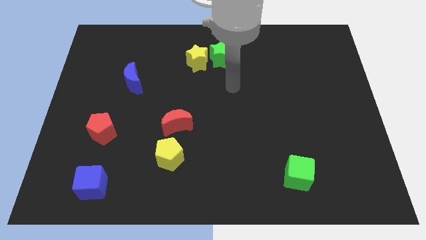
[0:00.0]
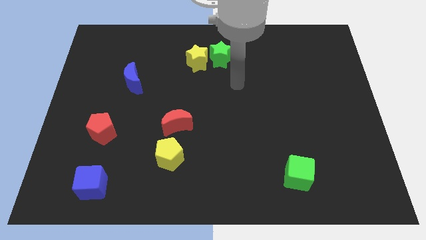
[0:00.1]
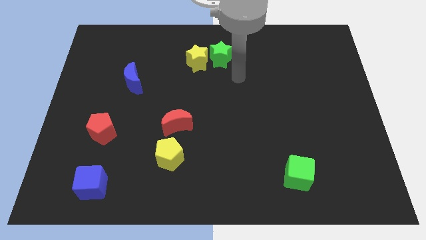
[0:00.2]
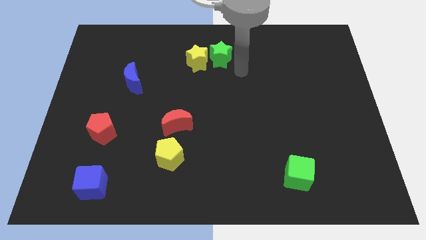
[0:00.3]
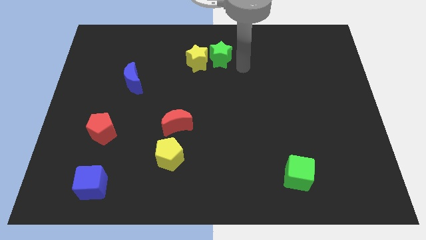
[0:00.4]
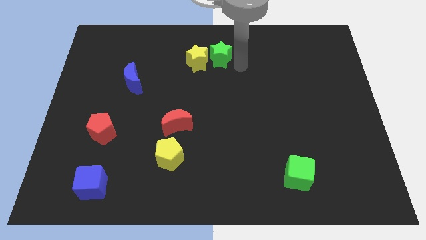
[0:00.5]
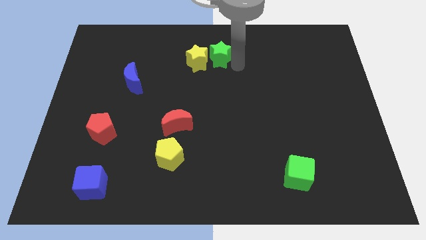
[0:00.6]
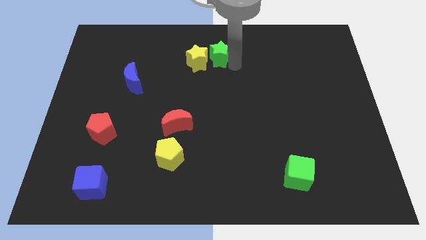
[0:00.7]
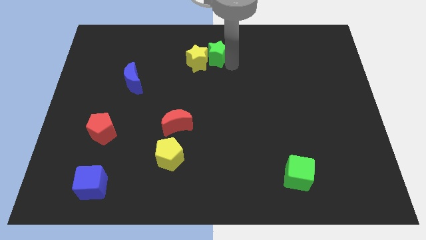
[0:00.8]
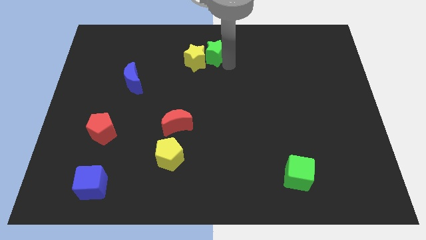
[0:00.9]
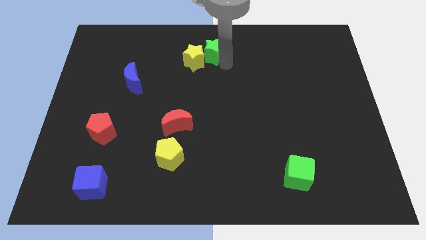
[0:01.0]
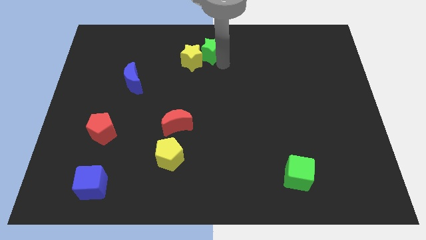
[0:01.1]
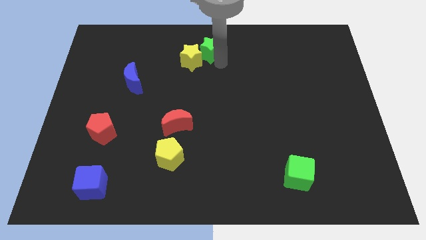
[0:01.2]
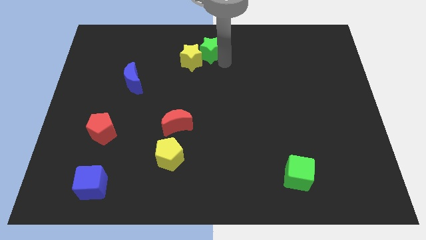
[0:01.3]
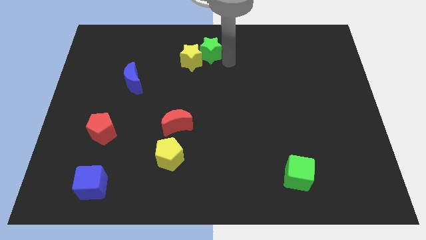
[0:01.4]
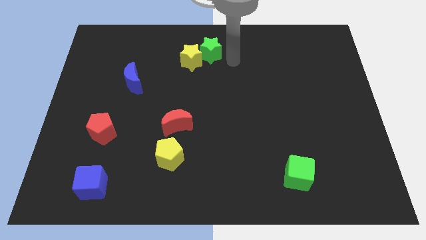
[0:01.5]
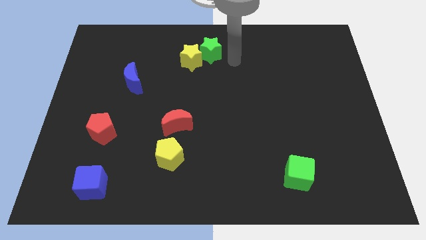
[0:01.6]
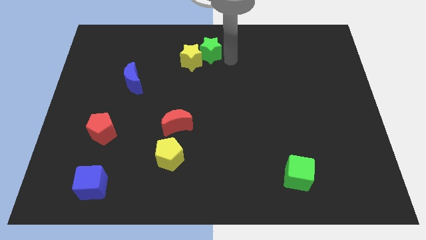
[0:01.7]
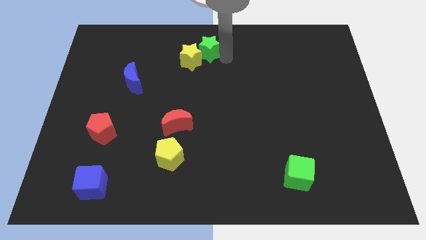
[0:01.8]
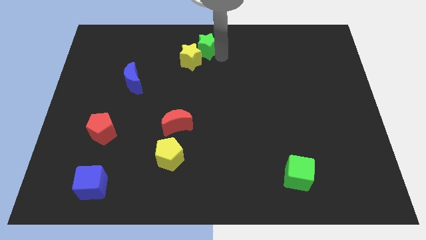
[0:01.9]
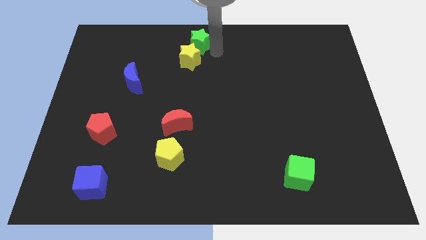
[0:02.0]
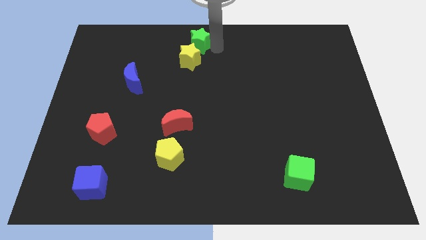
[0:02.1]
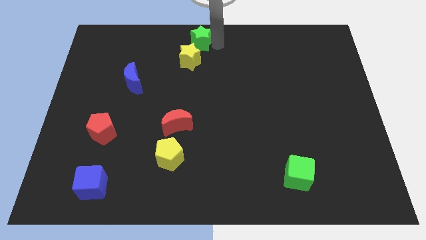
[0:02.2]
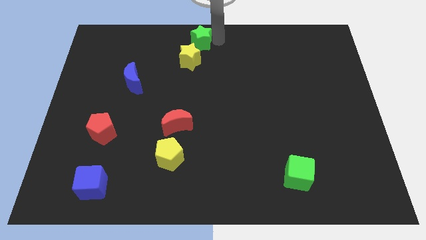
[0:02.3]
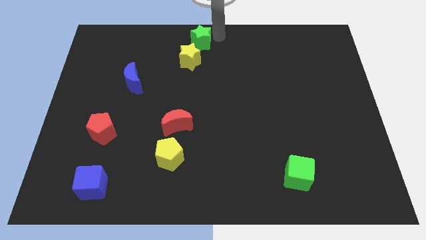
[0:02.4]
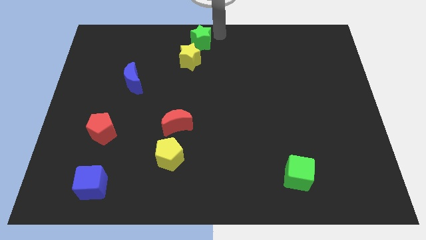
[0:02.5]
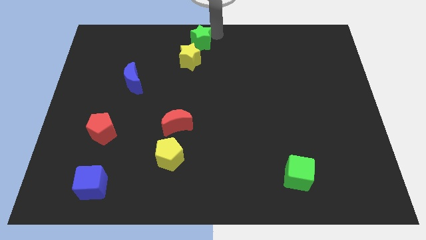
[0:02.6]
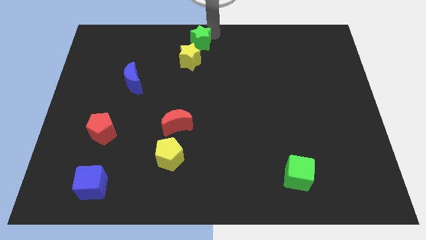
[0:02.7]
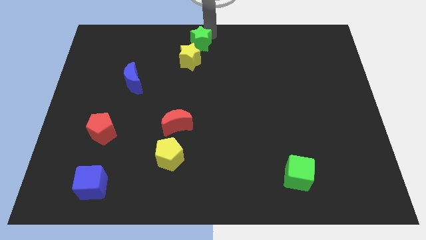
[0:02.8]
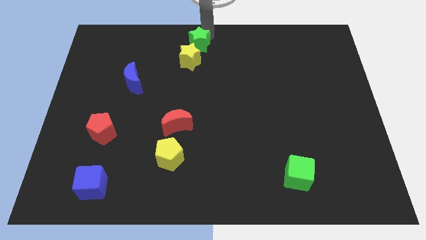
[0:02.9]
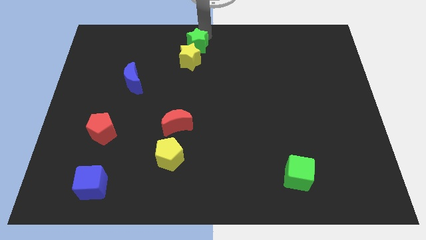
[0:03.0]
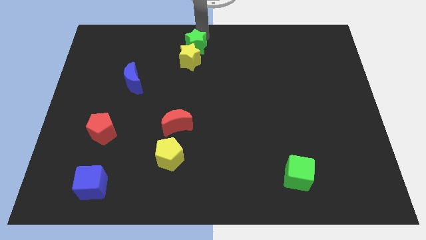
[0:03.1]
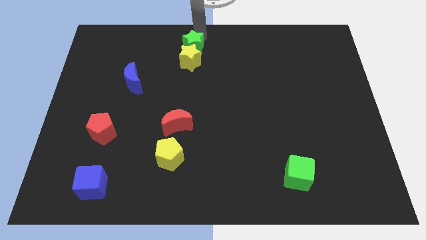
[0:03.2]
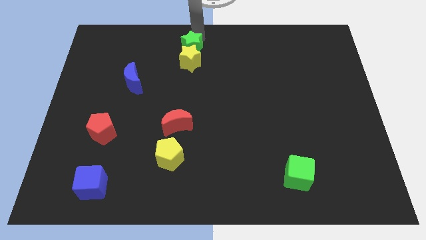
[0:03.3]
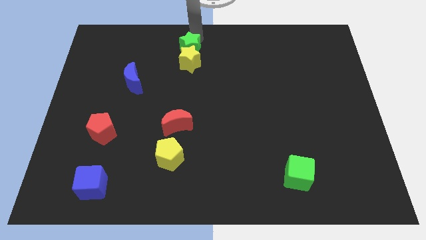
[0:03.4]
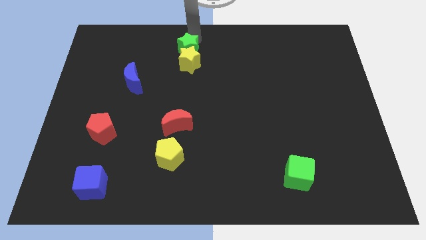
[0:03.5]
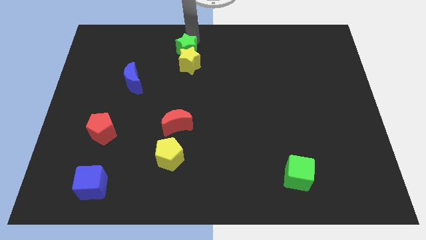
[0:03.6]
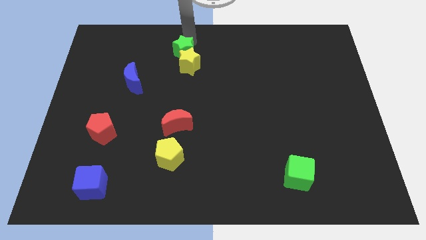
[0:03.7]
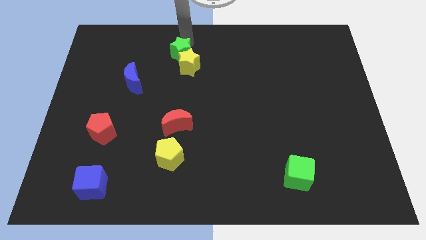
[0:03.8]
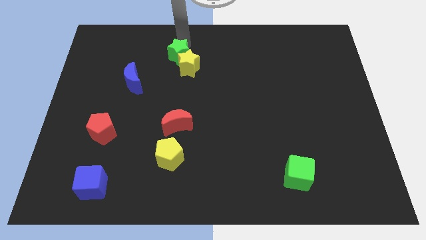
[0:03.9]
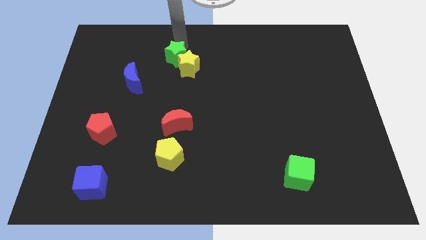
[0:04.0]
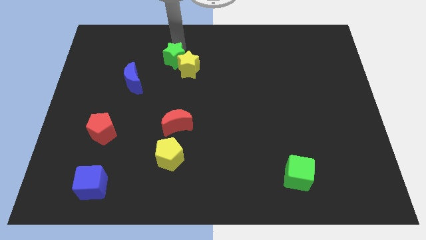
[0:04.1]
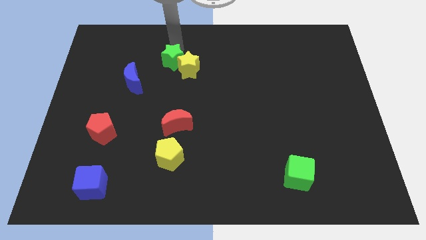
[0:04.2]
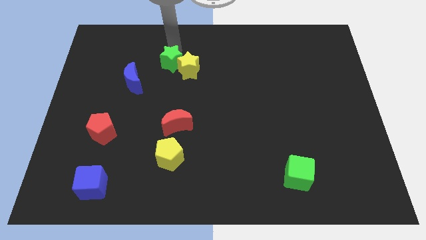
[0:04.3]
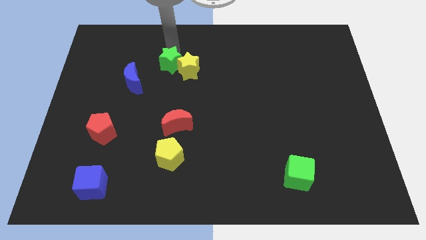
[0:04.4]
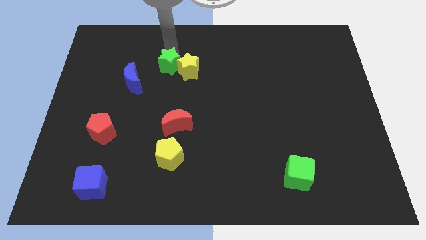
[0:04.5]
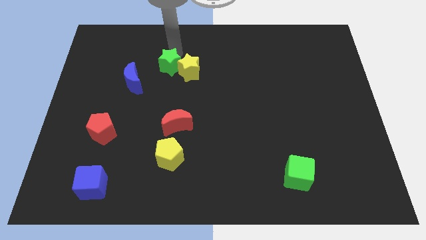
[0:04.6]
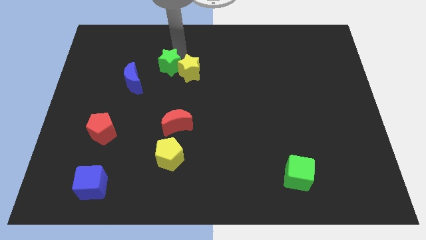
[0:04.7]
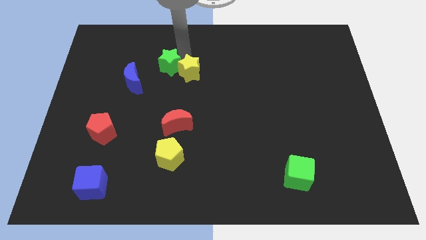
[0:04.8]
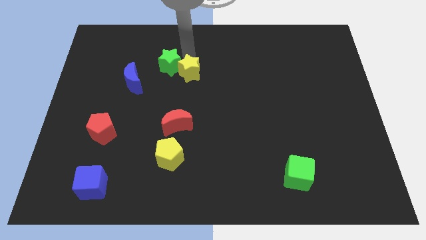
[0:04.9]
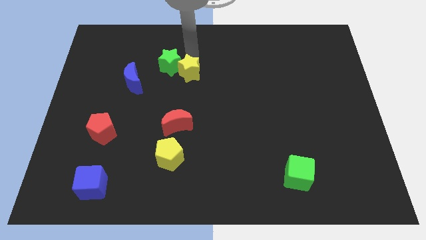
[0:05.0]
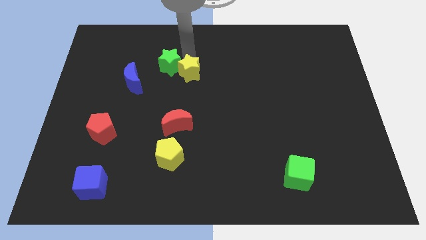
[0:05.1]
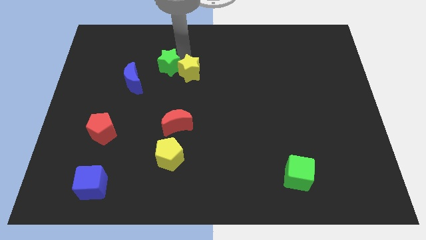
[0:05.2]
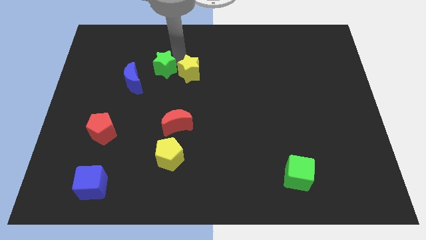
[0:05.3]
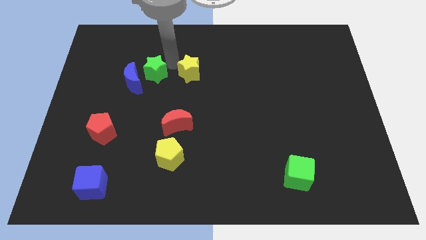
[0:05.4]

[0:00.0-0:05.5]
push the green star next to the blue moon
